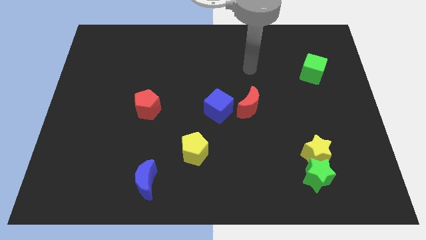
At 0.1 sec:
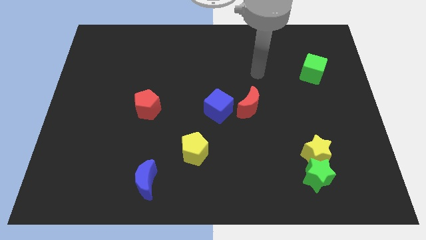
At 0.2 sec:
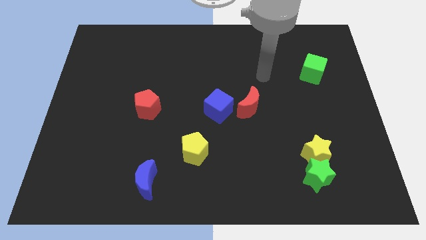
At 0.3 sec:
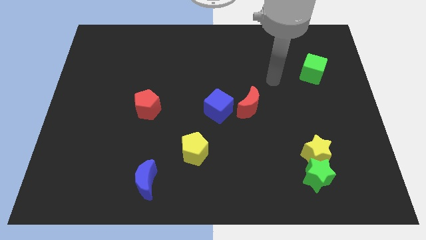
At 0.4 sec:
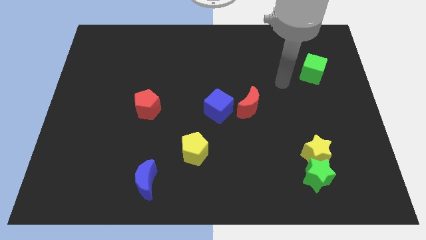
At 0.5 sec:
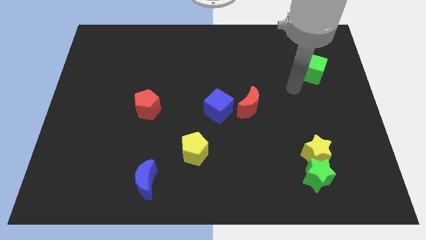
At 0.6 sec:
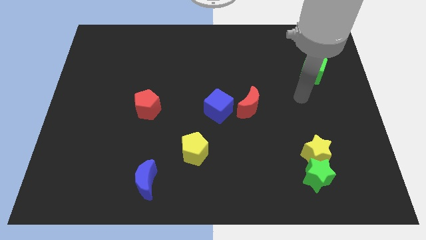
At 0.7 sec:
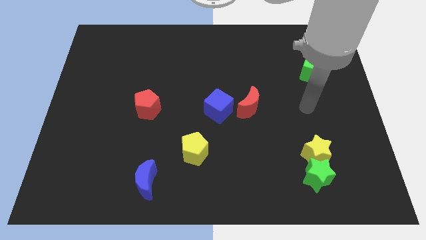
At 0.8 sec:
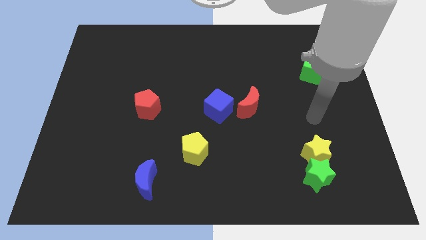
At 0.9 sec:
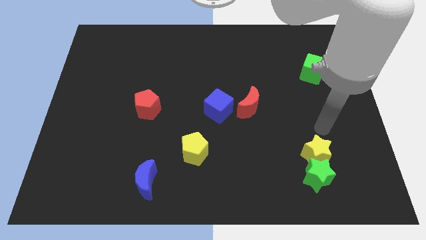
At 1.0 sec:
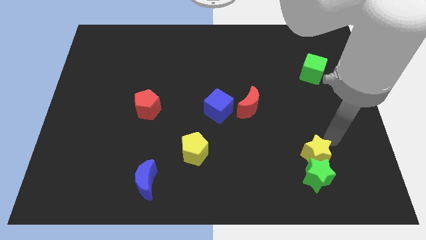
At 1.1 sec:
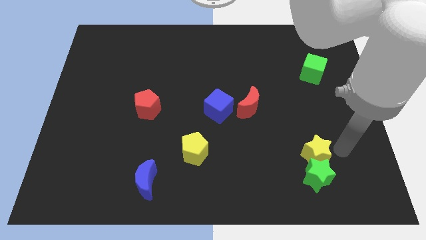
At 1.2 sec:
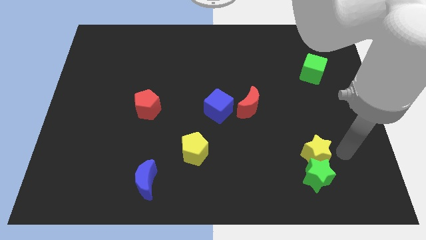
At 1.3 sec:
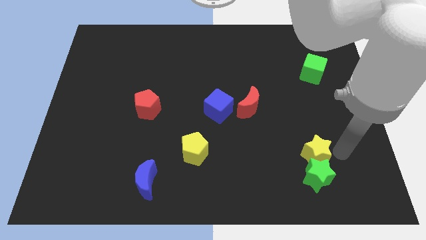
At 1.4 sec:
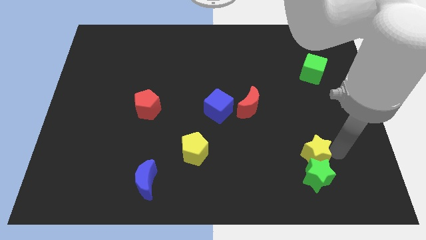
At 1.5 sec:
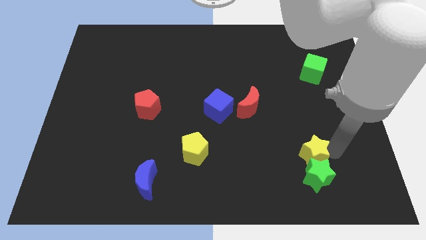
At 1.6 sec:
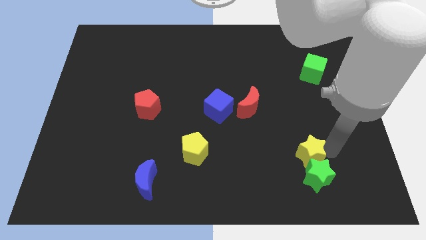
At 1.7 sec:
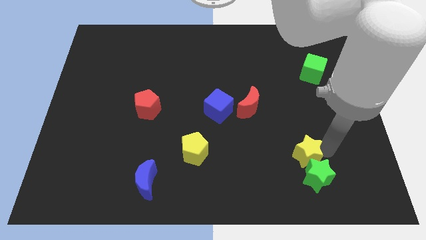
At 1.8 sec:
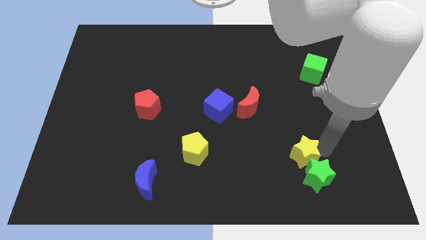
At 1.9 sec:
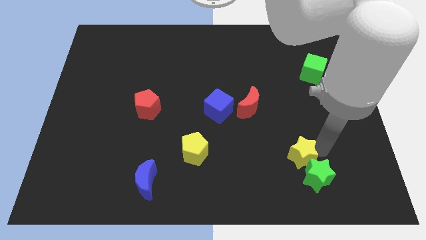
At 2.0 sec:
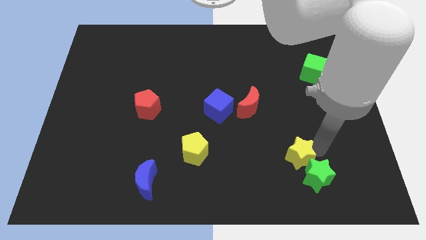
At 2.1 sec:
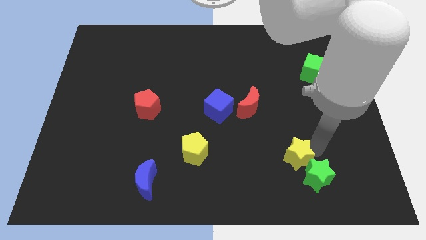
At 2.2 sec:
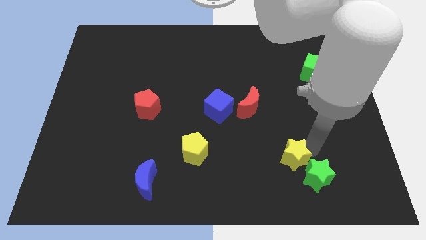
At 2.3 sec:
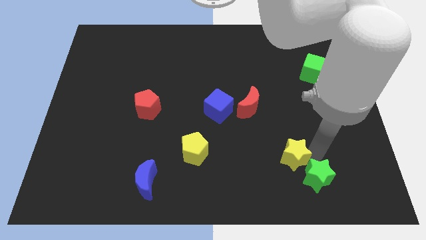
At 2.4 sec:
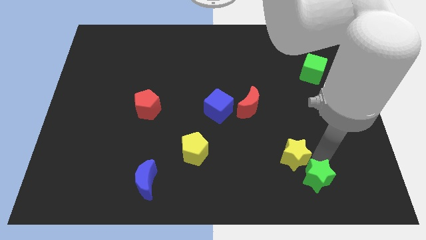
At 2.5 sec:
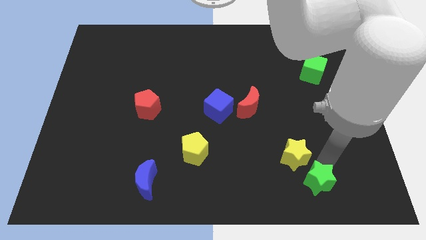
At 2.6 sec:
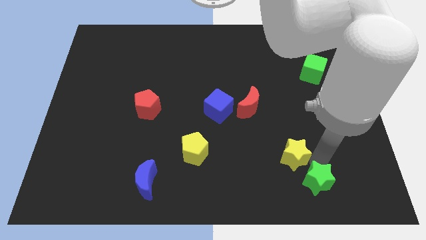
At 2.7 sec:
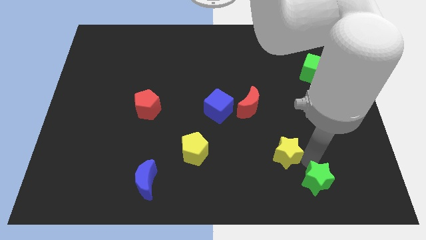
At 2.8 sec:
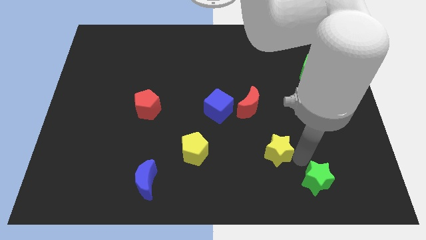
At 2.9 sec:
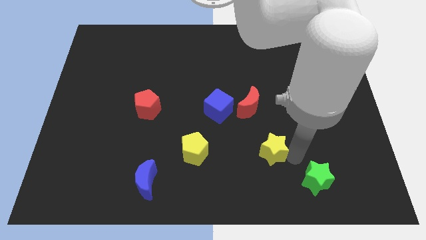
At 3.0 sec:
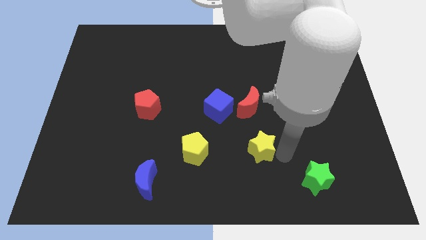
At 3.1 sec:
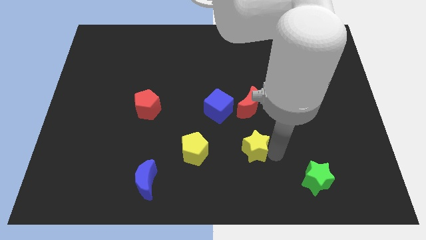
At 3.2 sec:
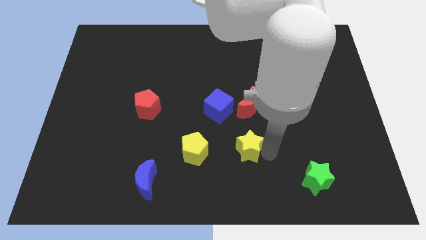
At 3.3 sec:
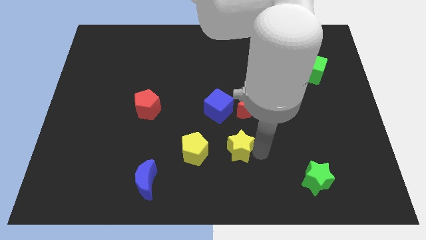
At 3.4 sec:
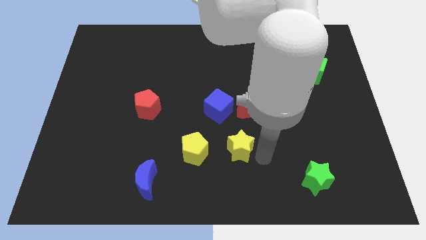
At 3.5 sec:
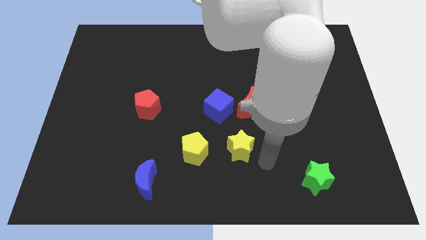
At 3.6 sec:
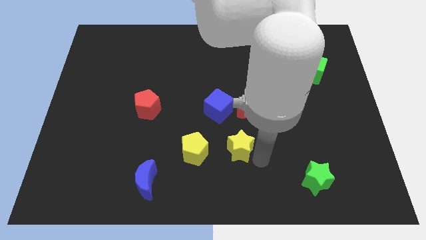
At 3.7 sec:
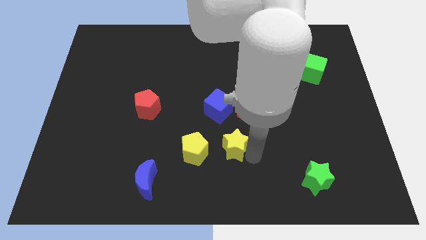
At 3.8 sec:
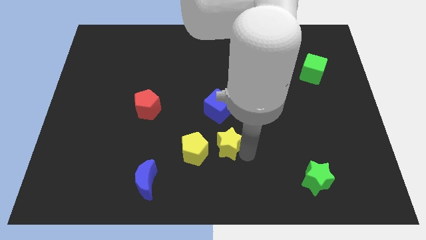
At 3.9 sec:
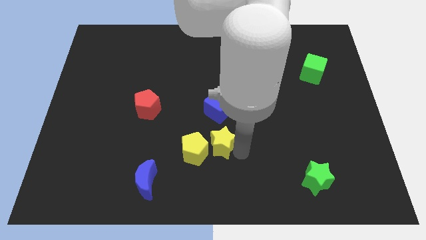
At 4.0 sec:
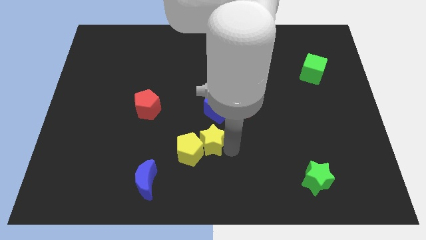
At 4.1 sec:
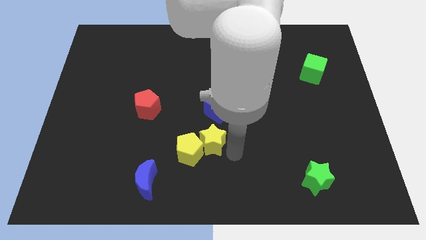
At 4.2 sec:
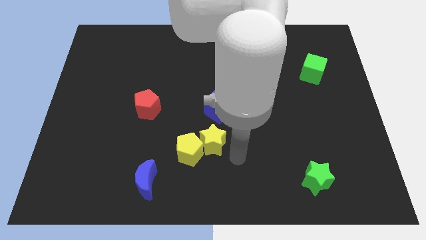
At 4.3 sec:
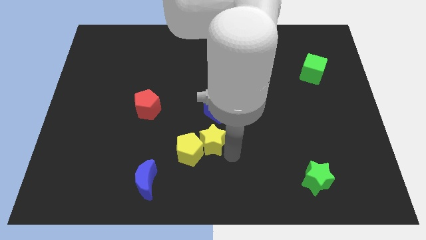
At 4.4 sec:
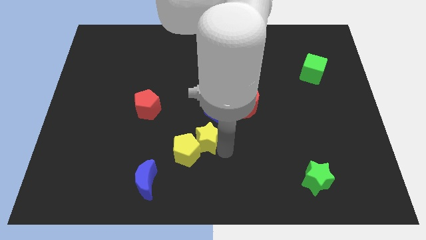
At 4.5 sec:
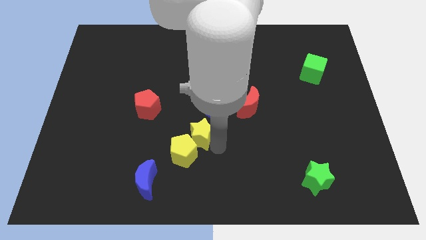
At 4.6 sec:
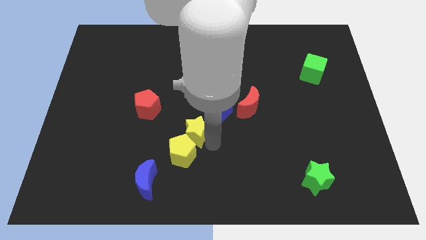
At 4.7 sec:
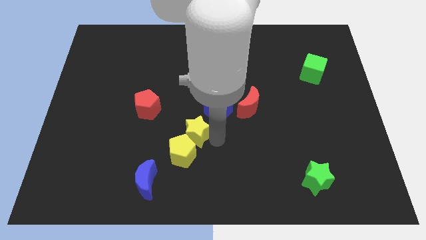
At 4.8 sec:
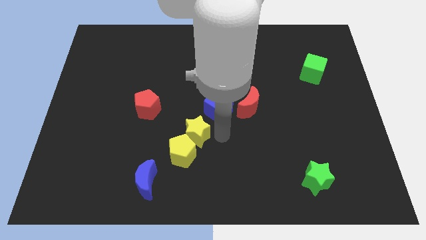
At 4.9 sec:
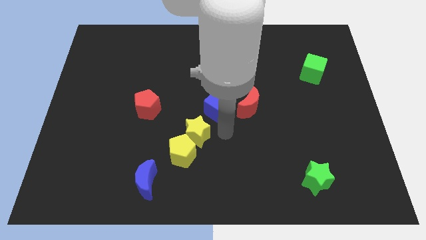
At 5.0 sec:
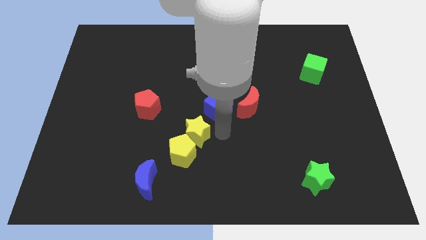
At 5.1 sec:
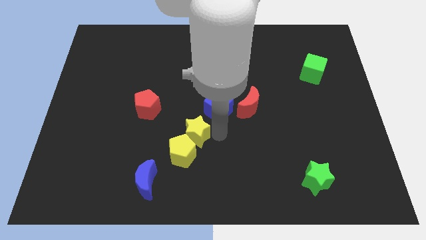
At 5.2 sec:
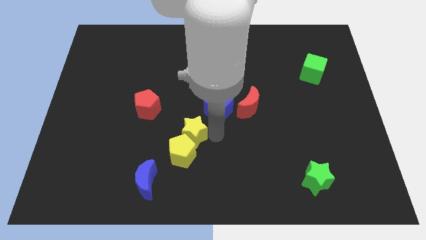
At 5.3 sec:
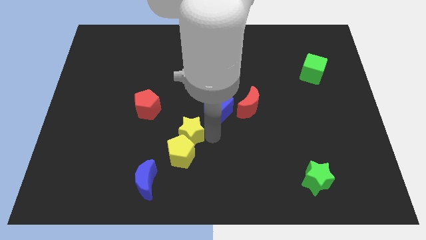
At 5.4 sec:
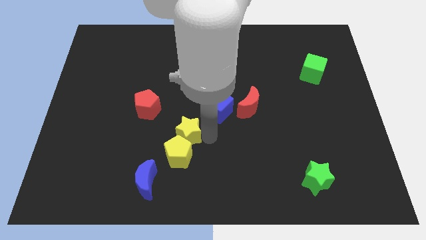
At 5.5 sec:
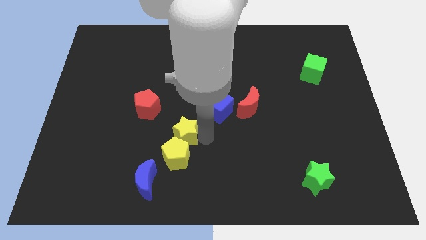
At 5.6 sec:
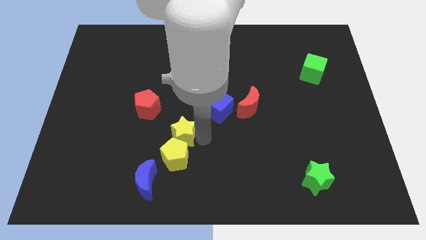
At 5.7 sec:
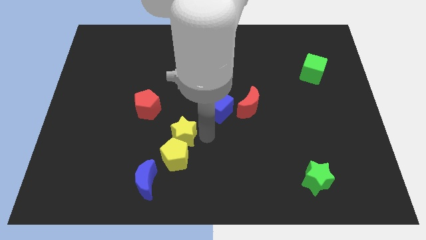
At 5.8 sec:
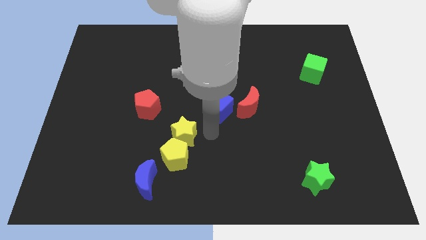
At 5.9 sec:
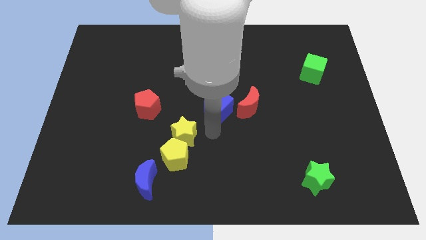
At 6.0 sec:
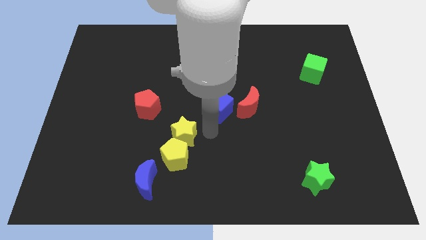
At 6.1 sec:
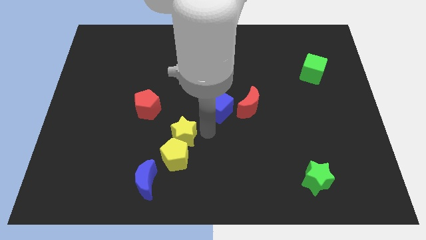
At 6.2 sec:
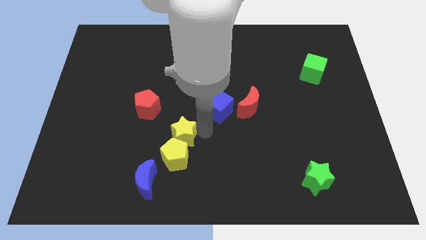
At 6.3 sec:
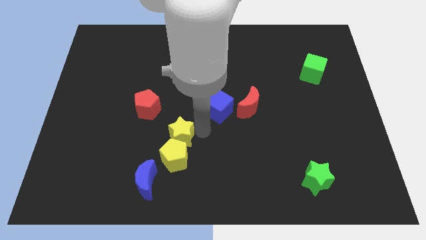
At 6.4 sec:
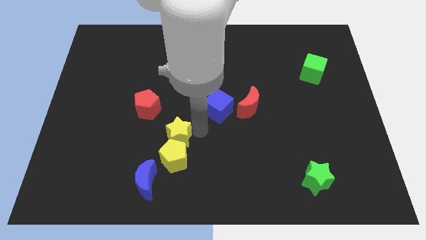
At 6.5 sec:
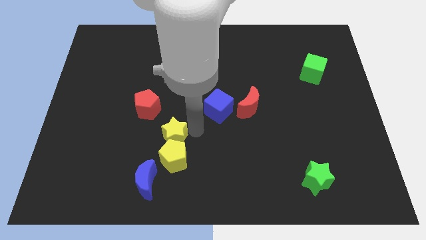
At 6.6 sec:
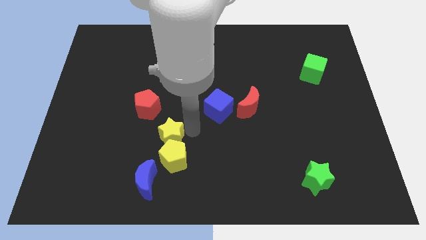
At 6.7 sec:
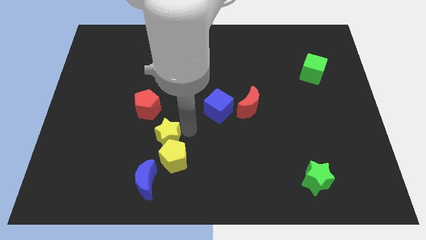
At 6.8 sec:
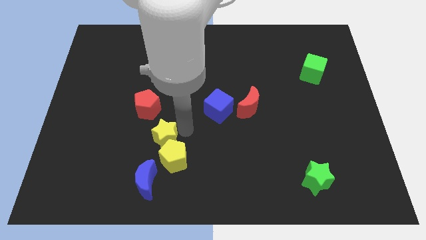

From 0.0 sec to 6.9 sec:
slide the yellow star to the bottom side of the red pentagon

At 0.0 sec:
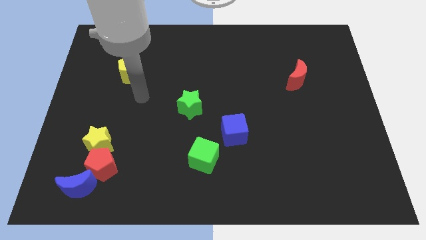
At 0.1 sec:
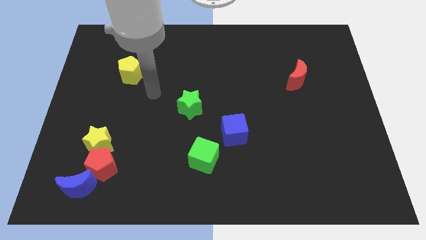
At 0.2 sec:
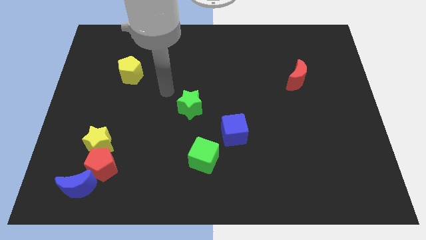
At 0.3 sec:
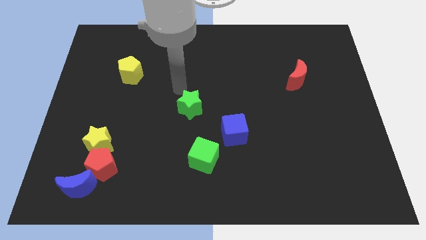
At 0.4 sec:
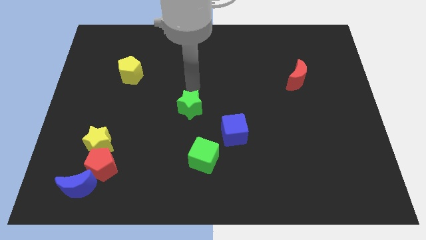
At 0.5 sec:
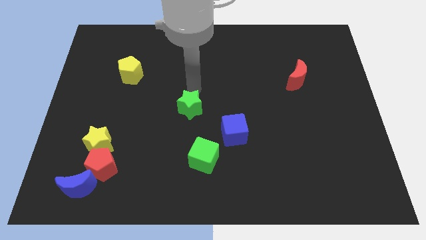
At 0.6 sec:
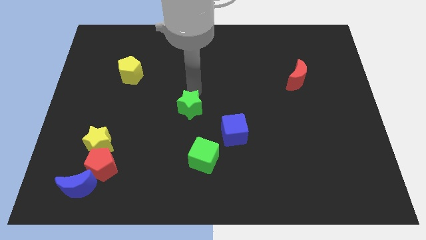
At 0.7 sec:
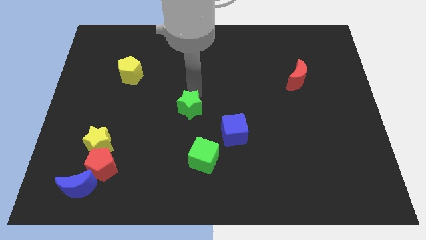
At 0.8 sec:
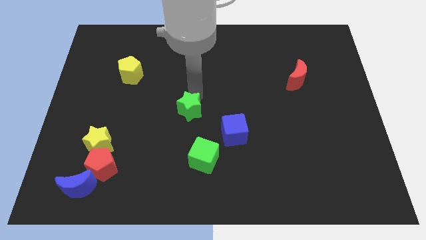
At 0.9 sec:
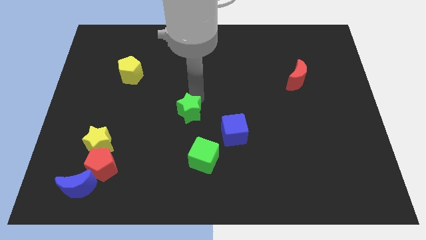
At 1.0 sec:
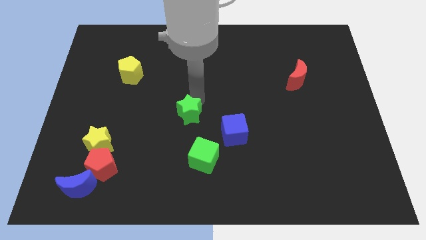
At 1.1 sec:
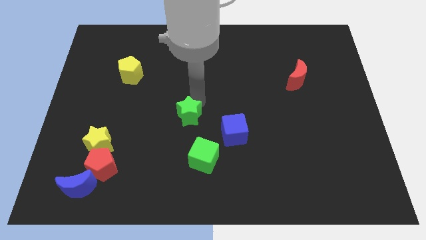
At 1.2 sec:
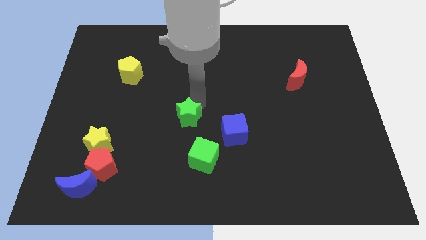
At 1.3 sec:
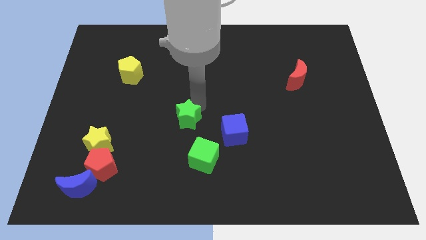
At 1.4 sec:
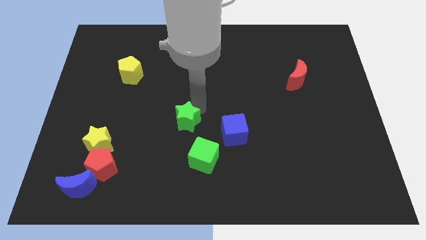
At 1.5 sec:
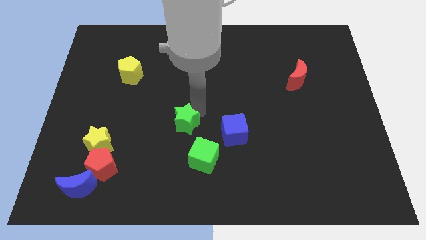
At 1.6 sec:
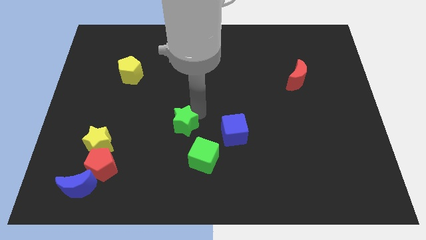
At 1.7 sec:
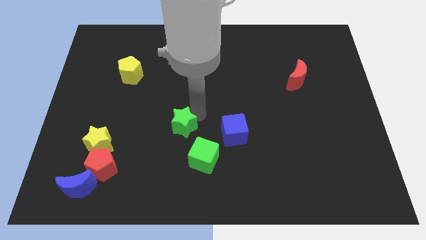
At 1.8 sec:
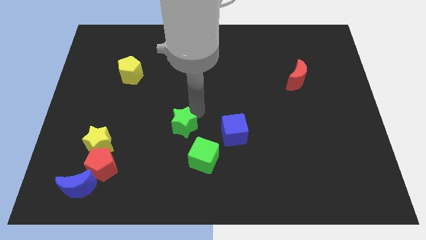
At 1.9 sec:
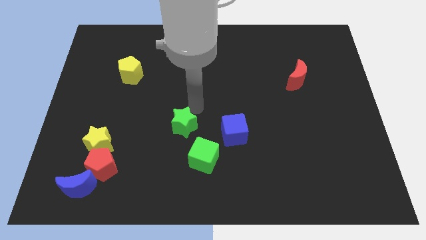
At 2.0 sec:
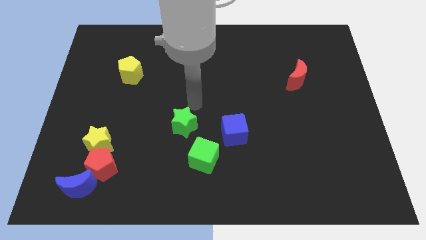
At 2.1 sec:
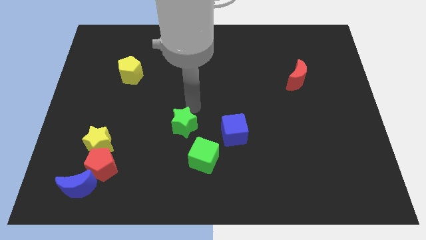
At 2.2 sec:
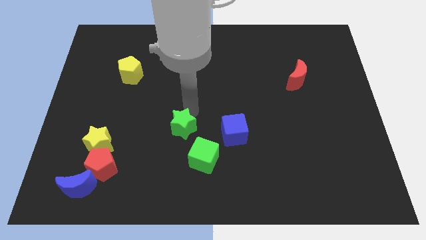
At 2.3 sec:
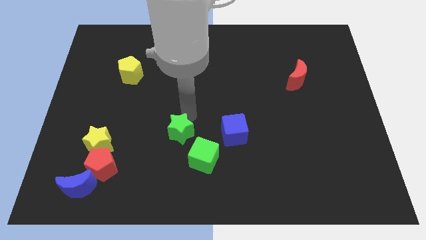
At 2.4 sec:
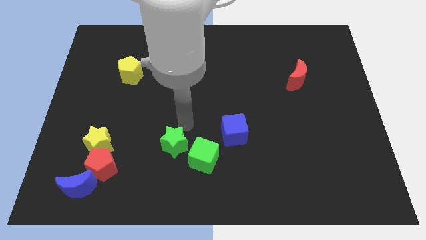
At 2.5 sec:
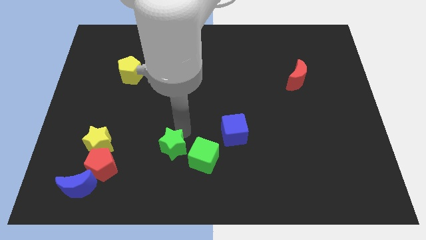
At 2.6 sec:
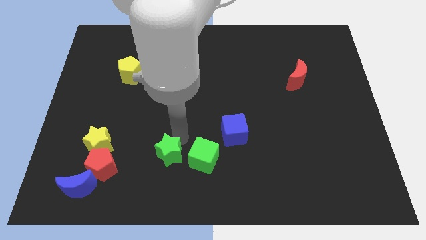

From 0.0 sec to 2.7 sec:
slide the green star right of the red pentagon
